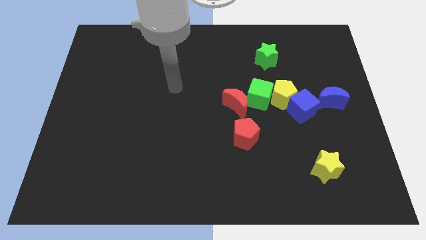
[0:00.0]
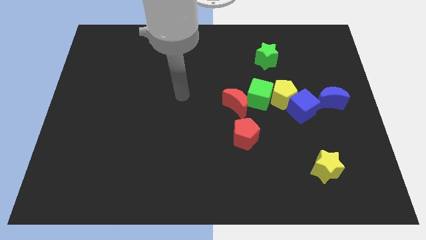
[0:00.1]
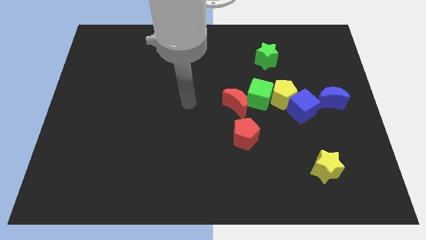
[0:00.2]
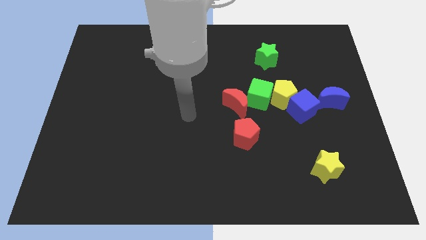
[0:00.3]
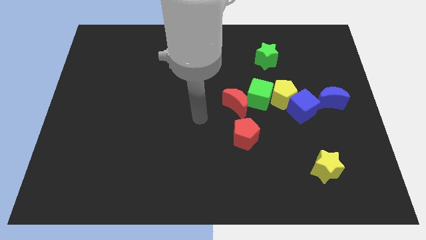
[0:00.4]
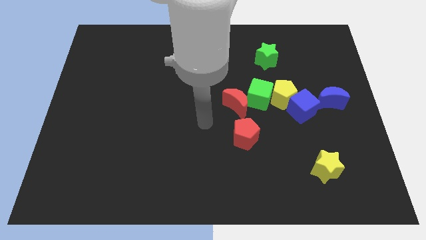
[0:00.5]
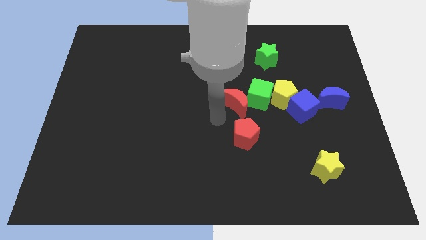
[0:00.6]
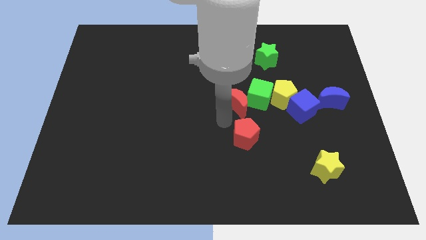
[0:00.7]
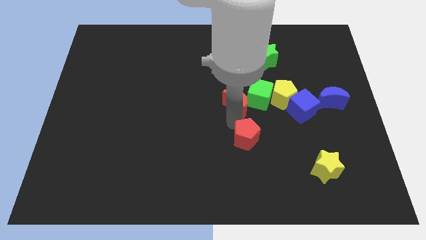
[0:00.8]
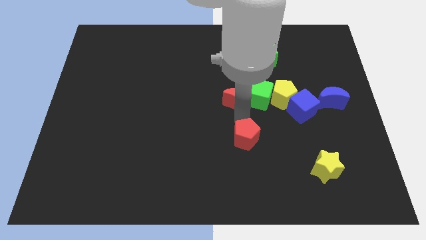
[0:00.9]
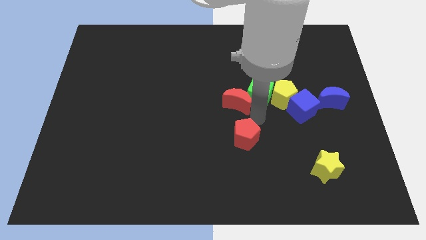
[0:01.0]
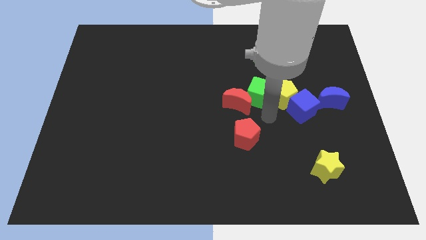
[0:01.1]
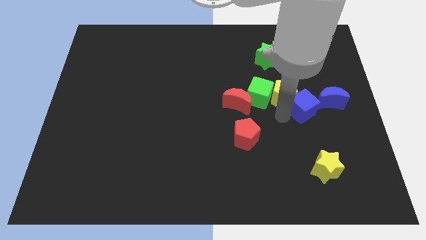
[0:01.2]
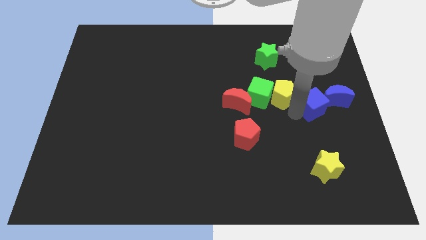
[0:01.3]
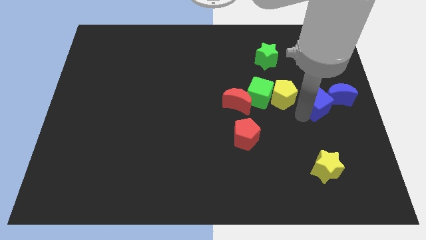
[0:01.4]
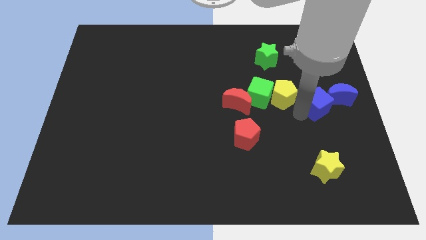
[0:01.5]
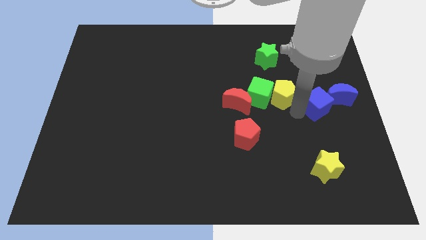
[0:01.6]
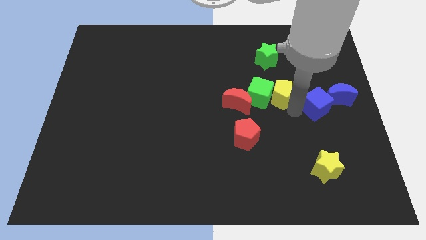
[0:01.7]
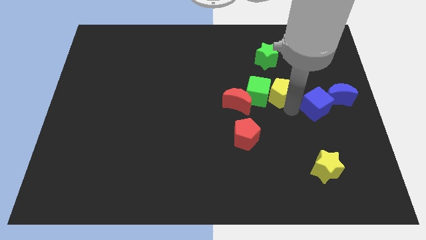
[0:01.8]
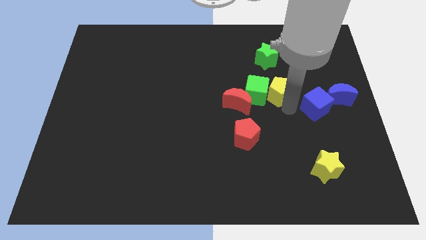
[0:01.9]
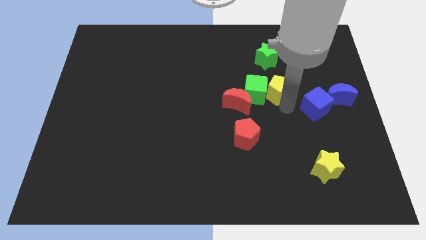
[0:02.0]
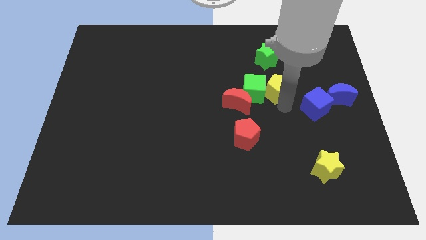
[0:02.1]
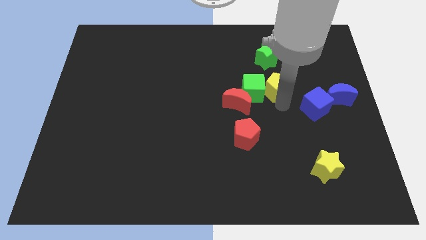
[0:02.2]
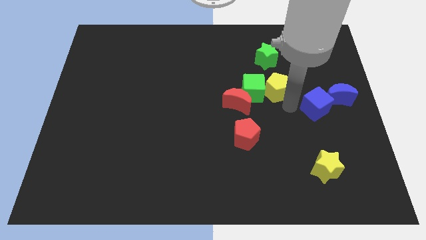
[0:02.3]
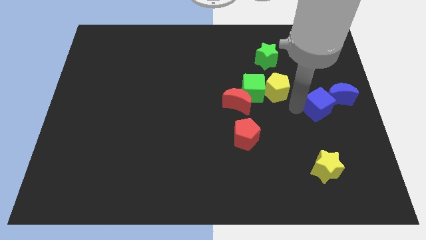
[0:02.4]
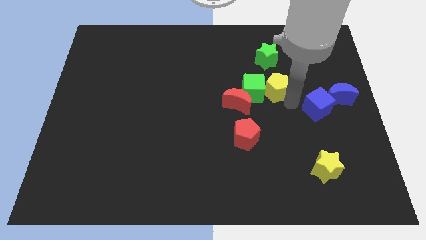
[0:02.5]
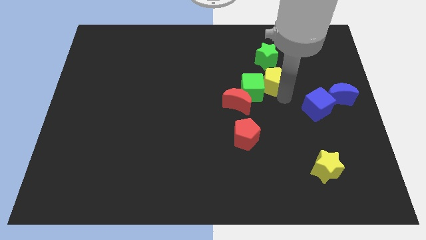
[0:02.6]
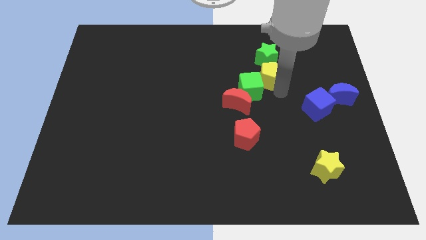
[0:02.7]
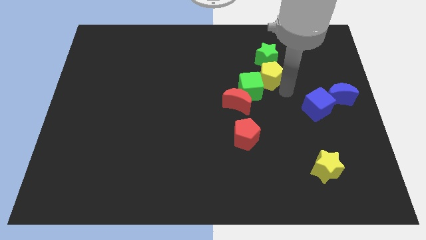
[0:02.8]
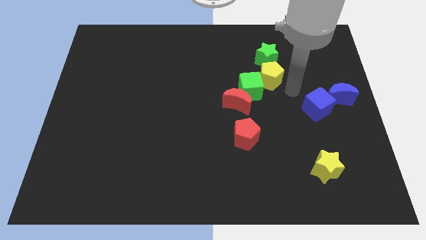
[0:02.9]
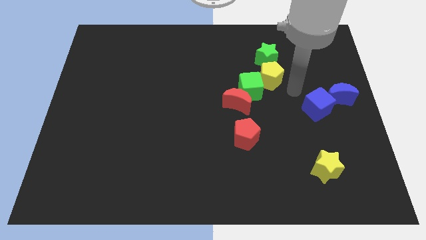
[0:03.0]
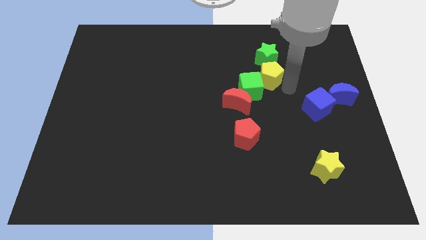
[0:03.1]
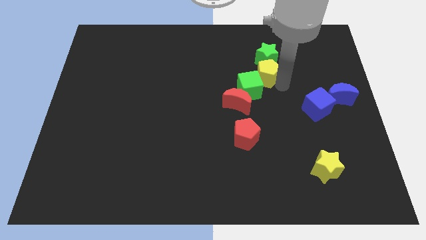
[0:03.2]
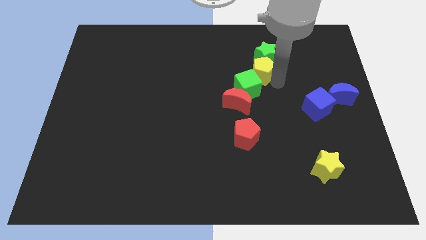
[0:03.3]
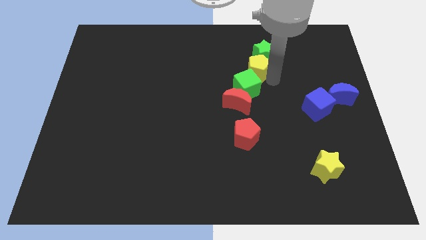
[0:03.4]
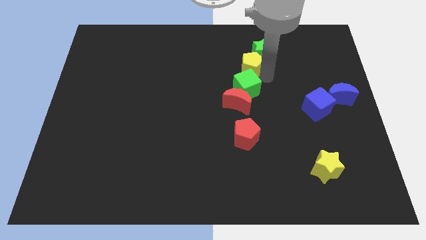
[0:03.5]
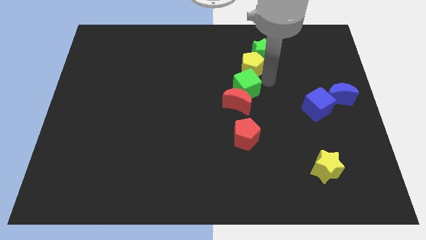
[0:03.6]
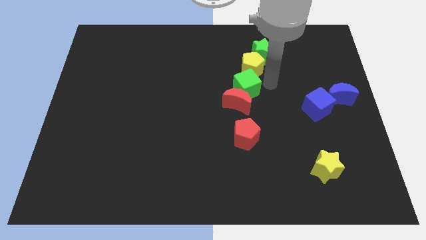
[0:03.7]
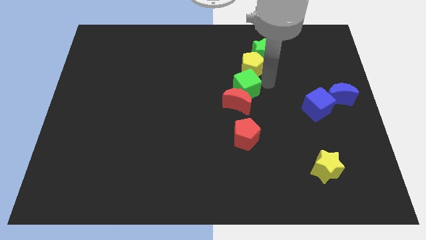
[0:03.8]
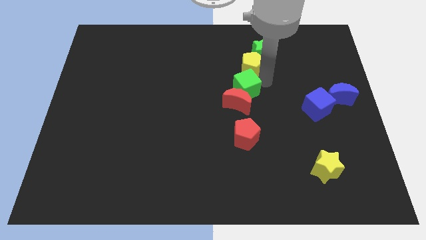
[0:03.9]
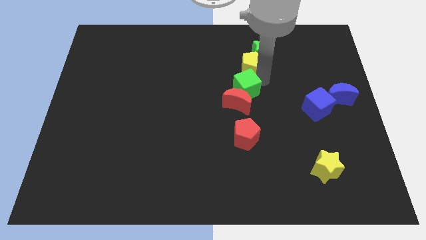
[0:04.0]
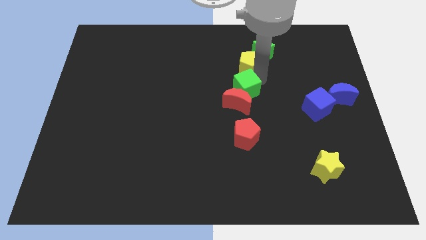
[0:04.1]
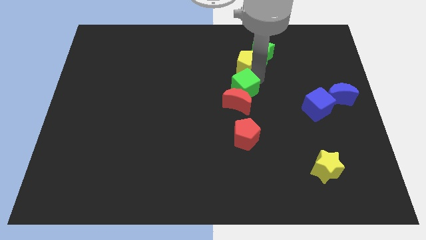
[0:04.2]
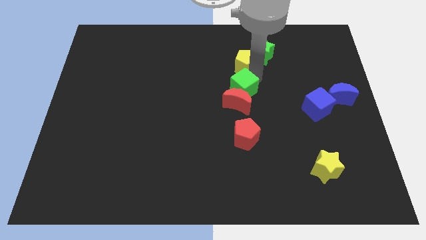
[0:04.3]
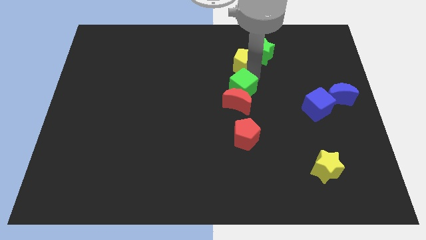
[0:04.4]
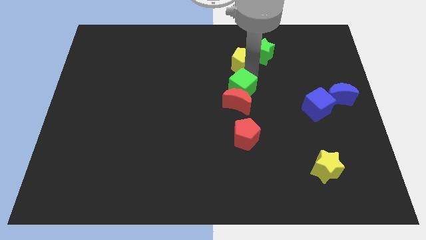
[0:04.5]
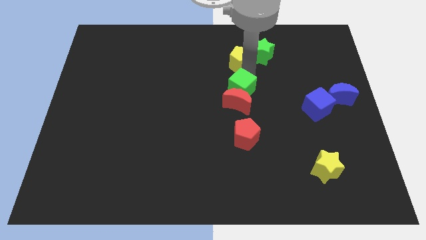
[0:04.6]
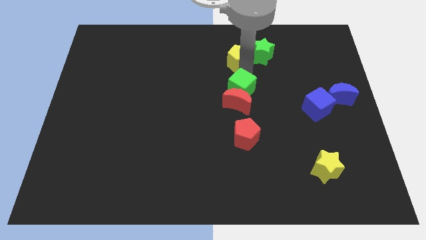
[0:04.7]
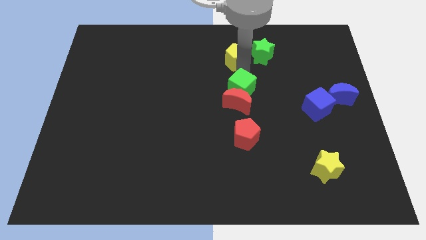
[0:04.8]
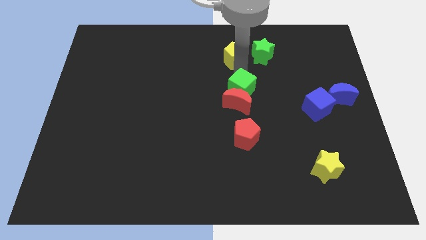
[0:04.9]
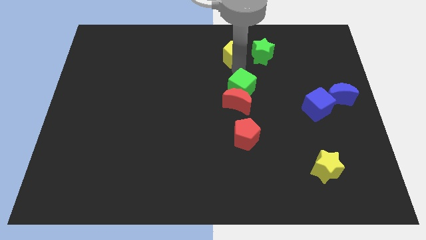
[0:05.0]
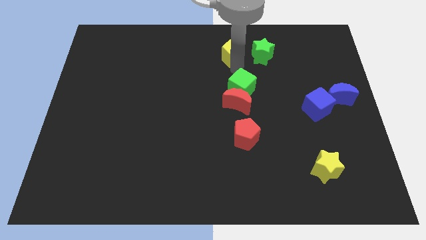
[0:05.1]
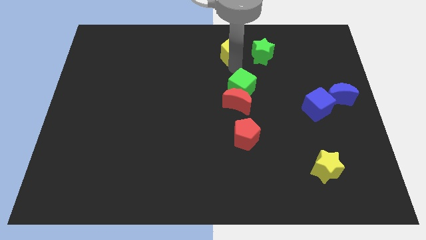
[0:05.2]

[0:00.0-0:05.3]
put the yellow pentagon to the top side
